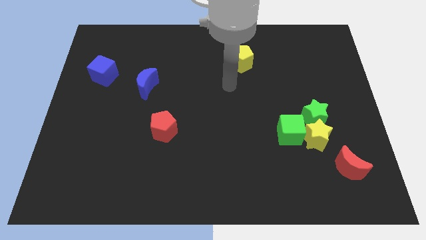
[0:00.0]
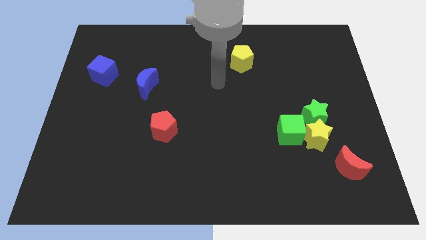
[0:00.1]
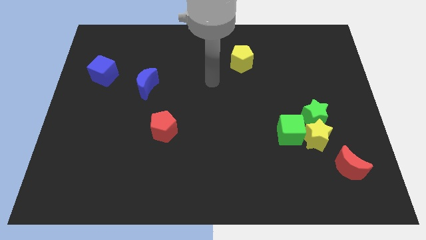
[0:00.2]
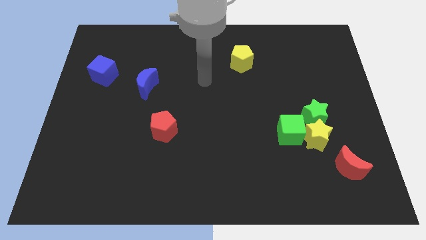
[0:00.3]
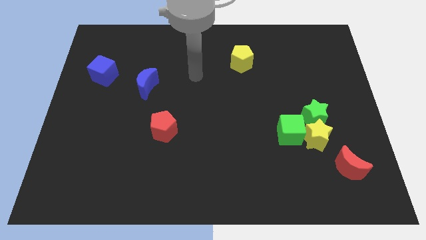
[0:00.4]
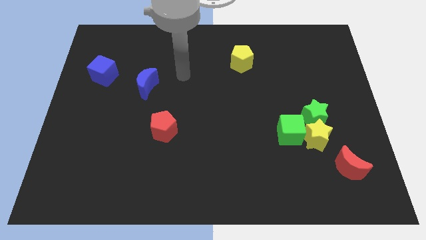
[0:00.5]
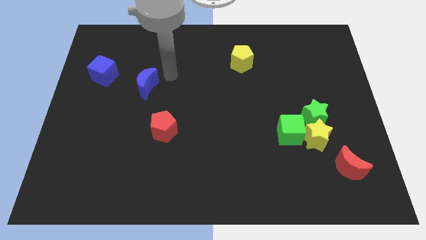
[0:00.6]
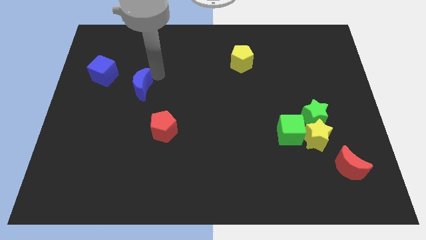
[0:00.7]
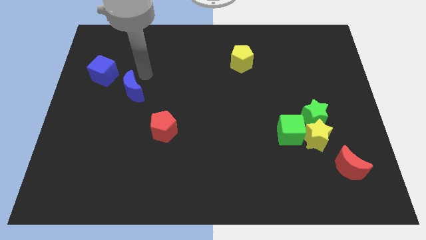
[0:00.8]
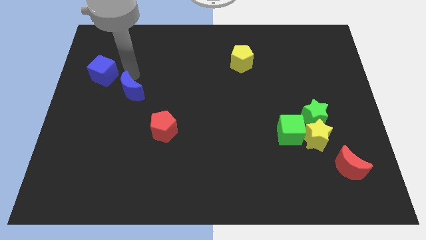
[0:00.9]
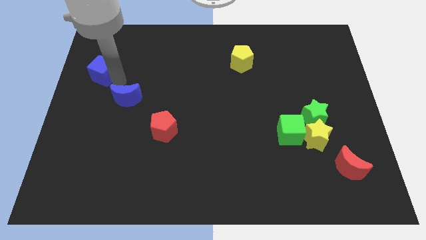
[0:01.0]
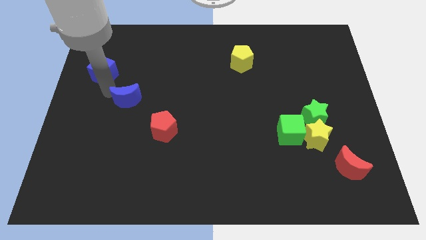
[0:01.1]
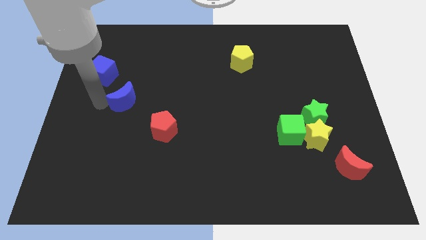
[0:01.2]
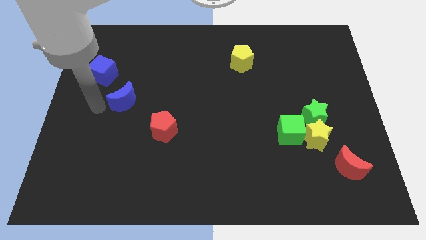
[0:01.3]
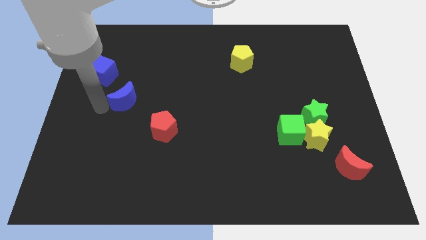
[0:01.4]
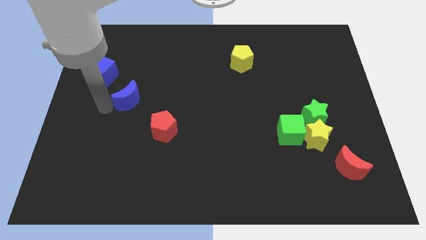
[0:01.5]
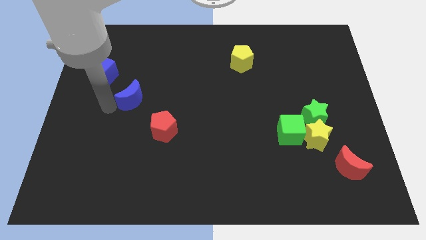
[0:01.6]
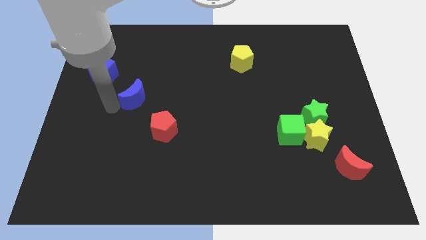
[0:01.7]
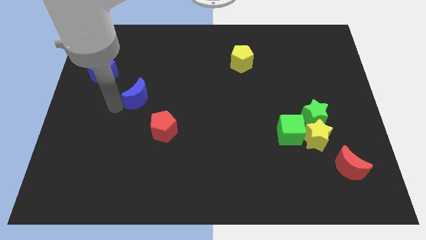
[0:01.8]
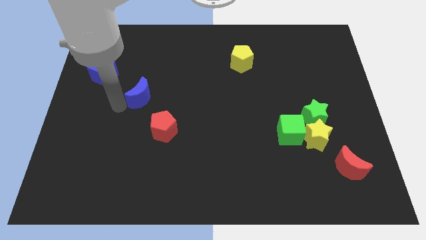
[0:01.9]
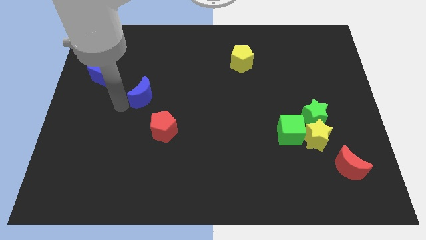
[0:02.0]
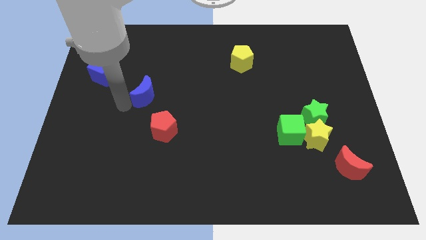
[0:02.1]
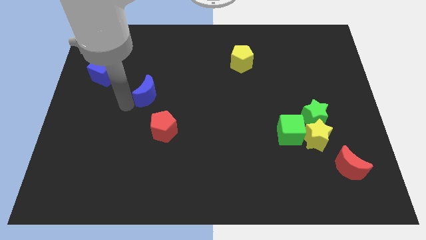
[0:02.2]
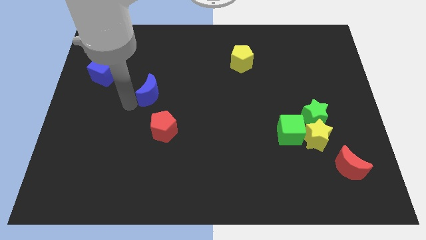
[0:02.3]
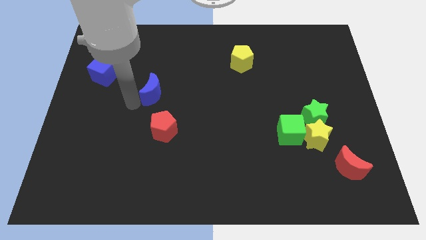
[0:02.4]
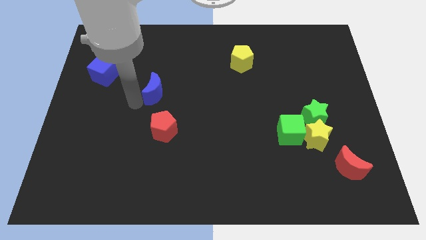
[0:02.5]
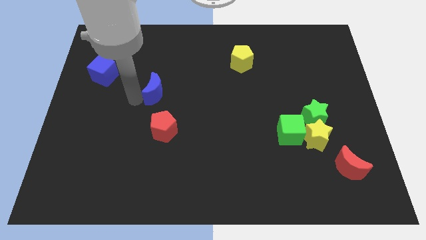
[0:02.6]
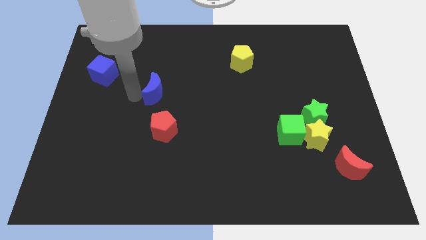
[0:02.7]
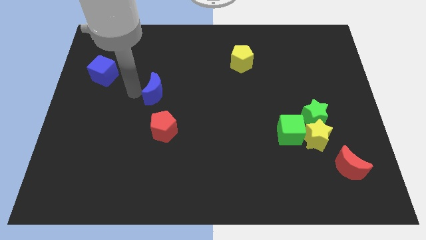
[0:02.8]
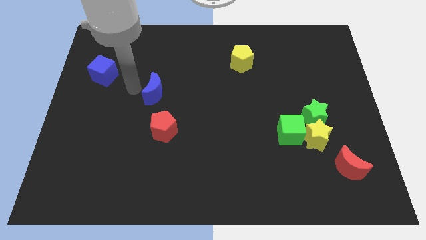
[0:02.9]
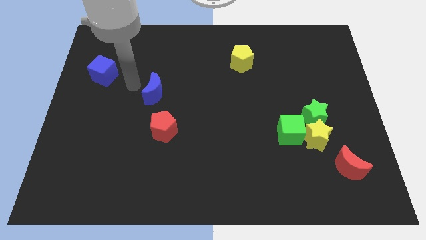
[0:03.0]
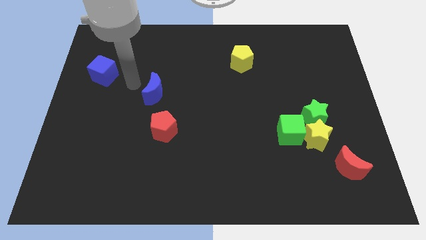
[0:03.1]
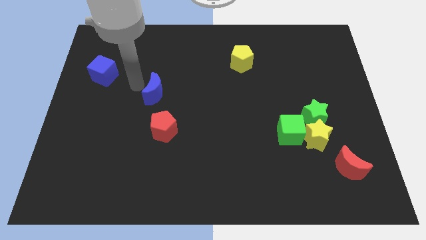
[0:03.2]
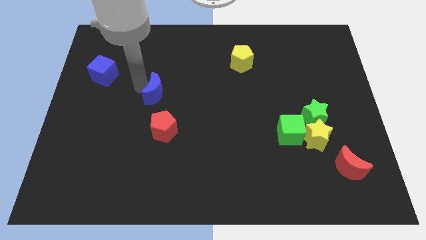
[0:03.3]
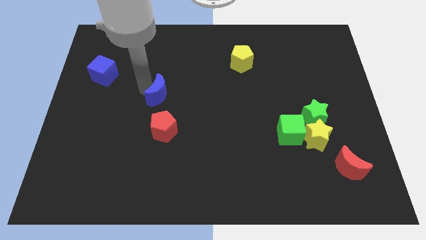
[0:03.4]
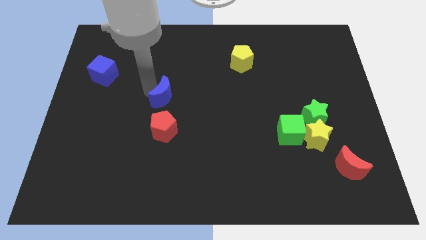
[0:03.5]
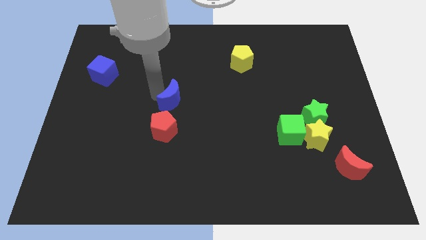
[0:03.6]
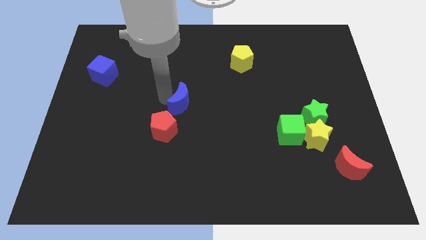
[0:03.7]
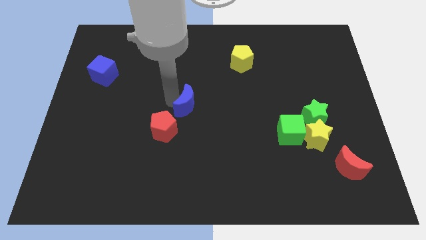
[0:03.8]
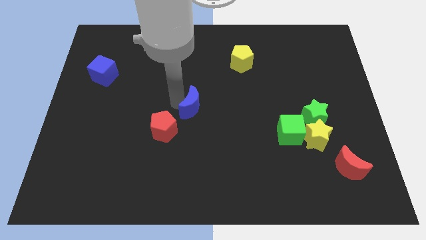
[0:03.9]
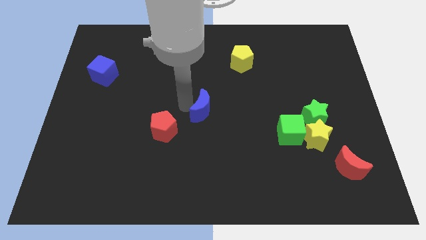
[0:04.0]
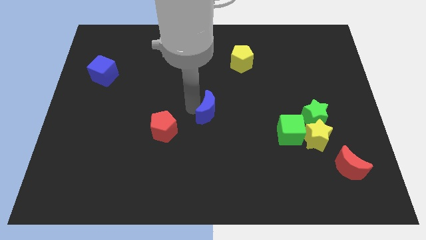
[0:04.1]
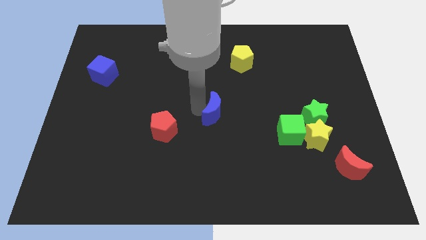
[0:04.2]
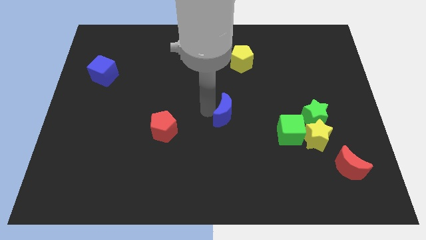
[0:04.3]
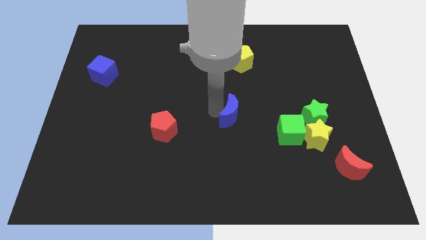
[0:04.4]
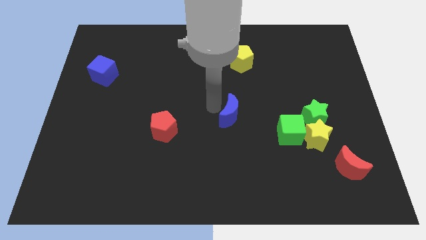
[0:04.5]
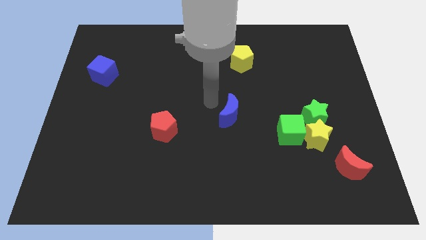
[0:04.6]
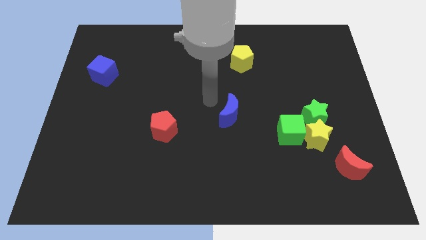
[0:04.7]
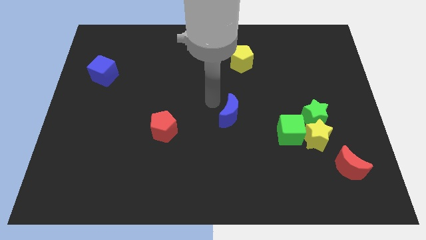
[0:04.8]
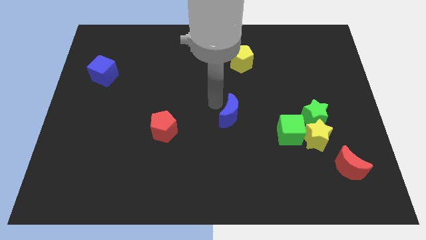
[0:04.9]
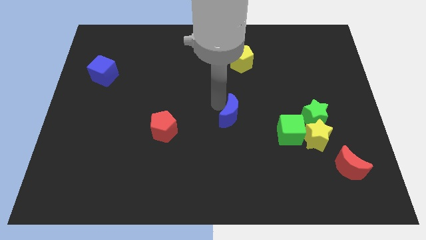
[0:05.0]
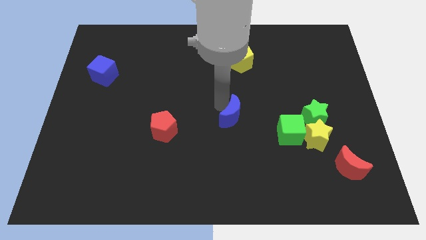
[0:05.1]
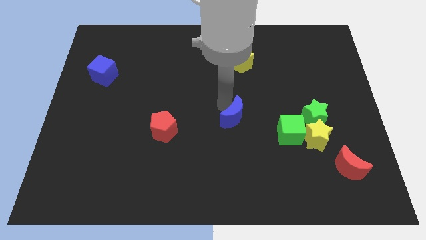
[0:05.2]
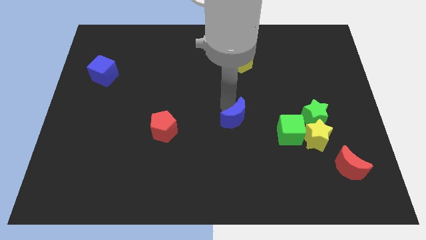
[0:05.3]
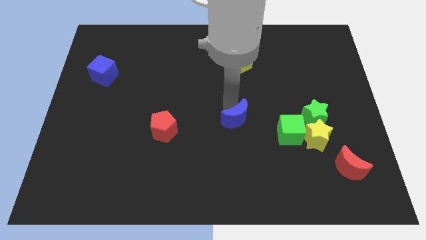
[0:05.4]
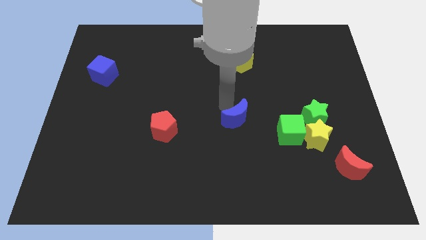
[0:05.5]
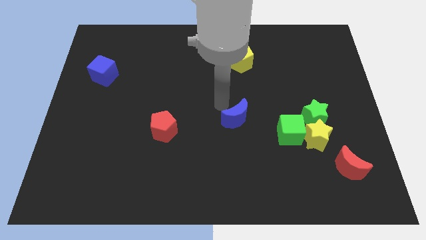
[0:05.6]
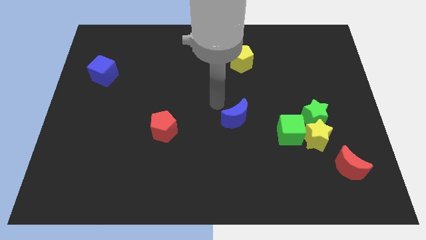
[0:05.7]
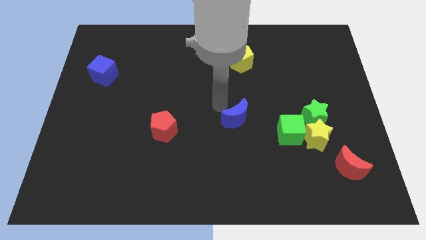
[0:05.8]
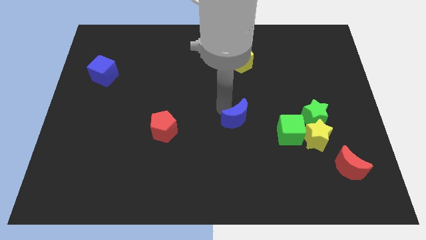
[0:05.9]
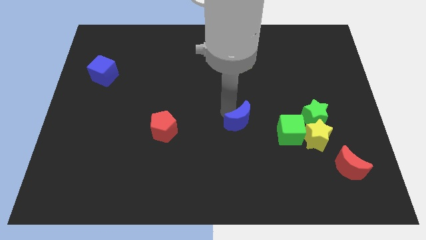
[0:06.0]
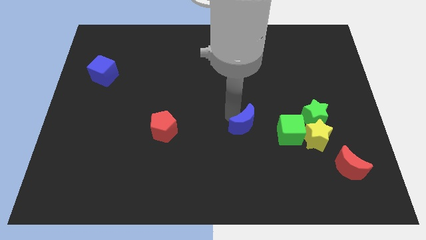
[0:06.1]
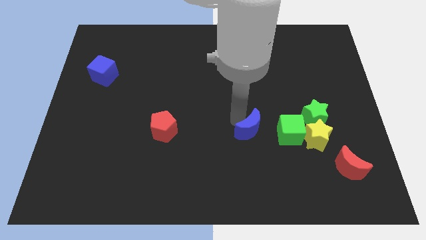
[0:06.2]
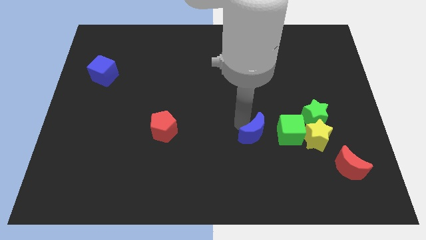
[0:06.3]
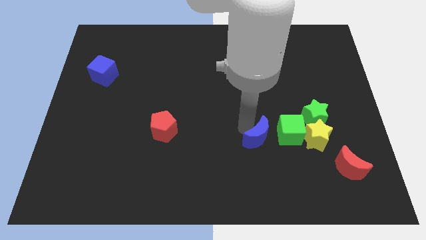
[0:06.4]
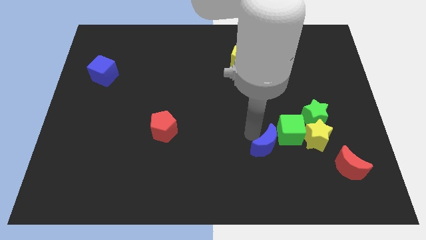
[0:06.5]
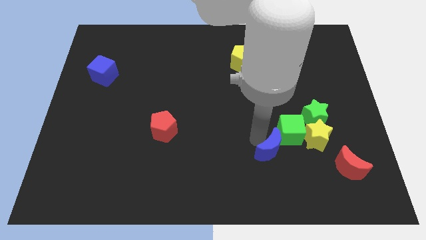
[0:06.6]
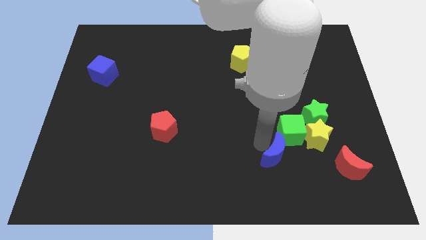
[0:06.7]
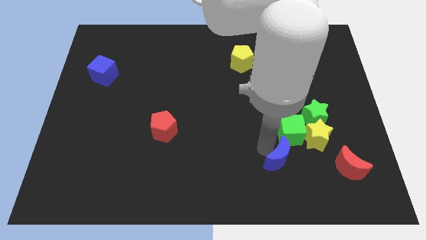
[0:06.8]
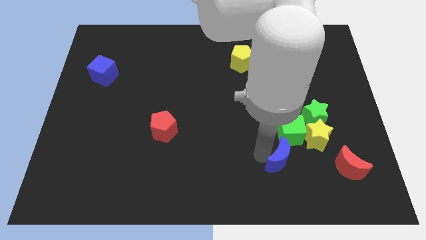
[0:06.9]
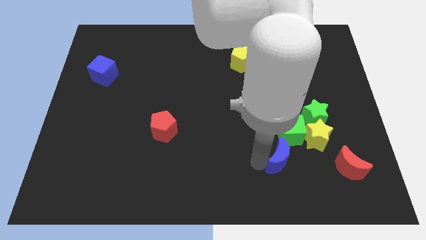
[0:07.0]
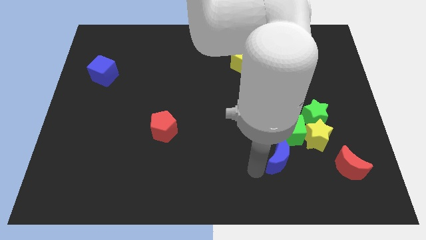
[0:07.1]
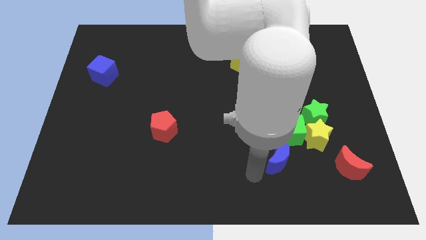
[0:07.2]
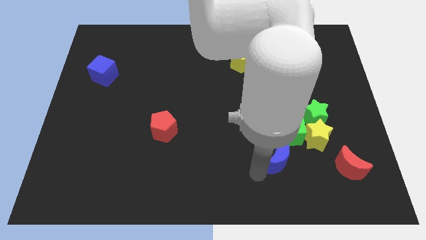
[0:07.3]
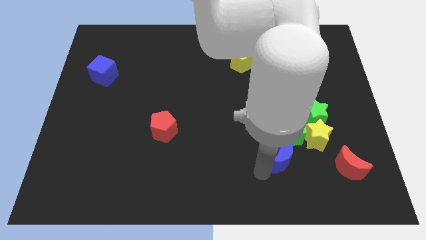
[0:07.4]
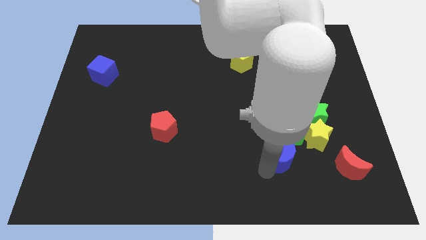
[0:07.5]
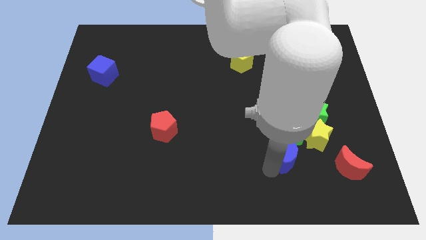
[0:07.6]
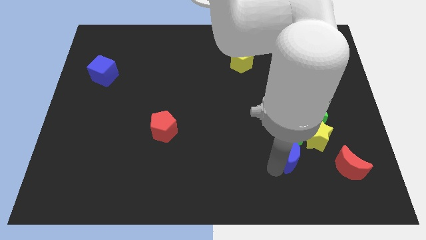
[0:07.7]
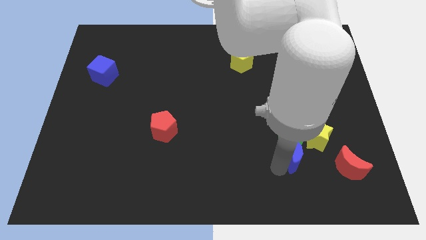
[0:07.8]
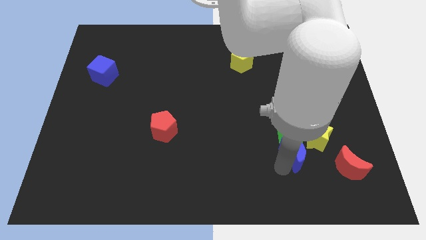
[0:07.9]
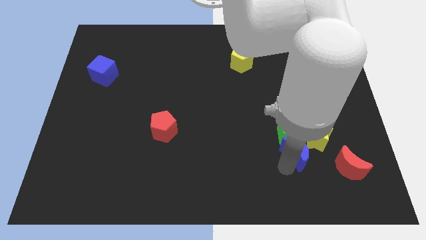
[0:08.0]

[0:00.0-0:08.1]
move the blue moon close to the yellow star

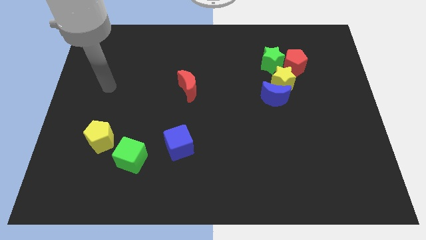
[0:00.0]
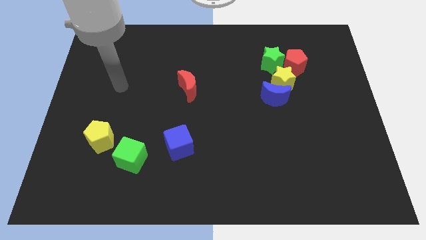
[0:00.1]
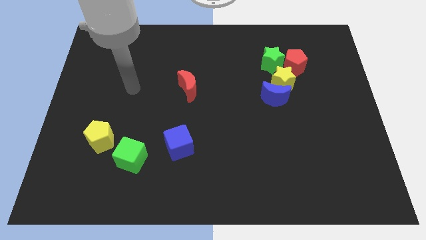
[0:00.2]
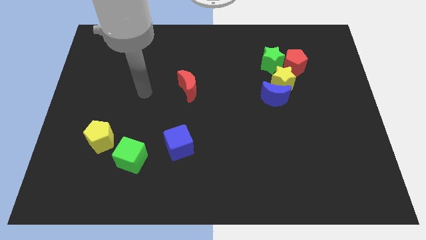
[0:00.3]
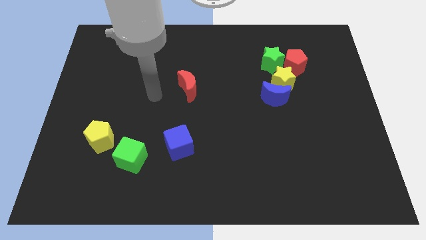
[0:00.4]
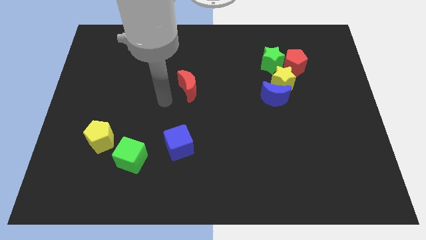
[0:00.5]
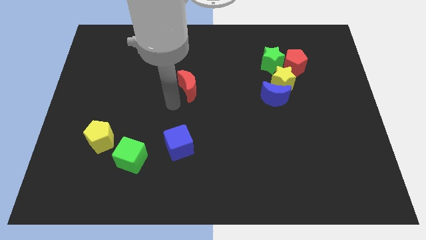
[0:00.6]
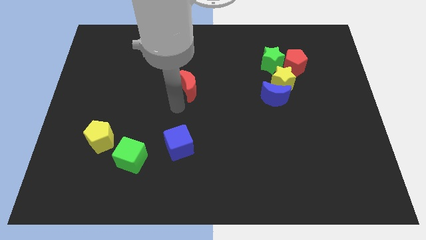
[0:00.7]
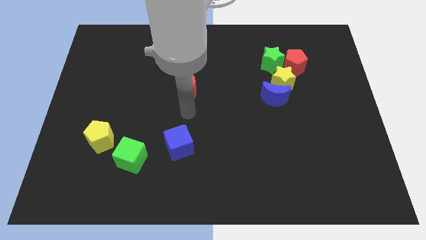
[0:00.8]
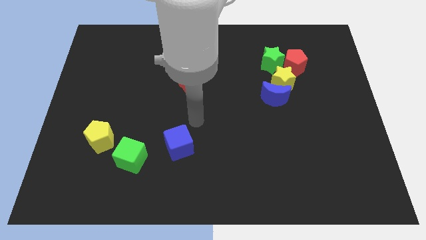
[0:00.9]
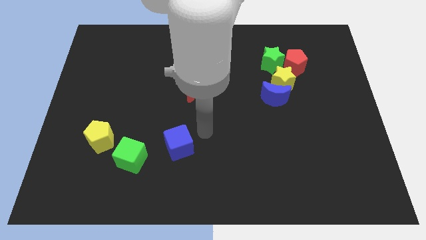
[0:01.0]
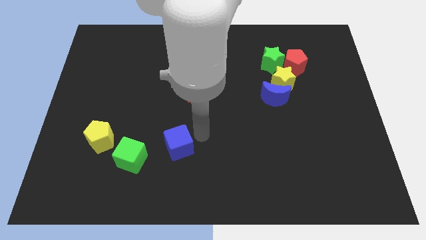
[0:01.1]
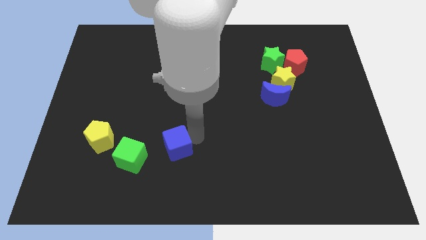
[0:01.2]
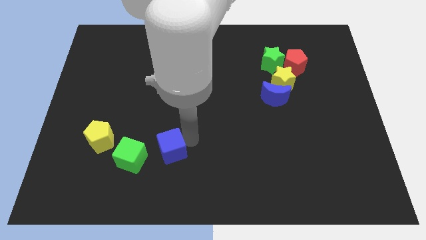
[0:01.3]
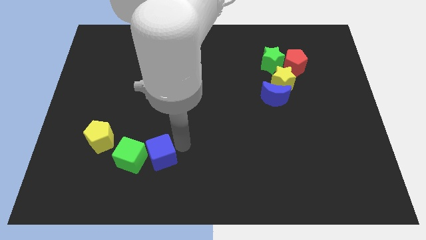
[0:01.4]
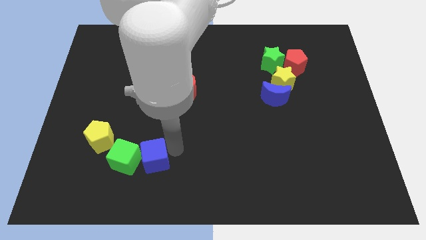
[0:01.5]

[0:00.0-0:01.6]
push the blue cube towards the green cube
